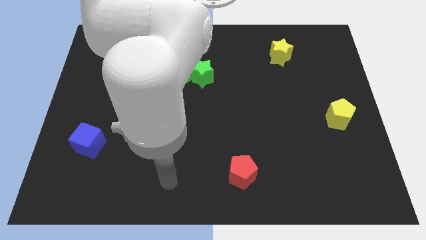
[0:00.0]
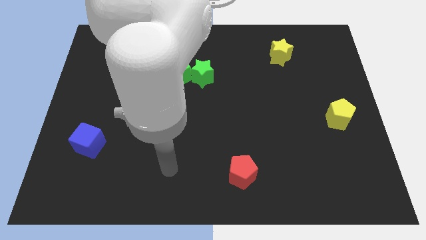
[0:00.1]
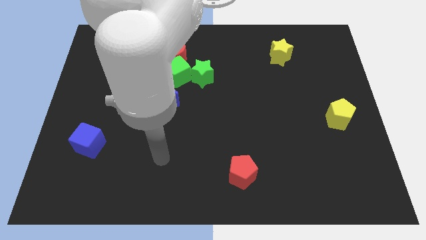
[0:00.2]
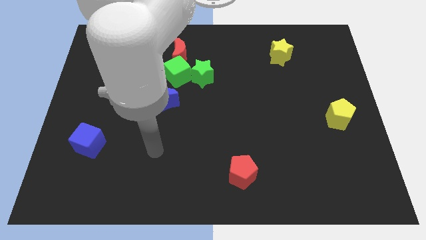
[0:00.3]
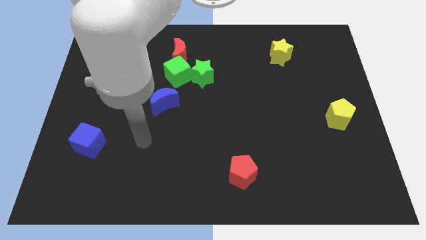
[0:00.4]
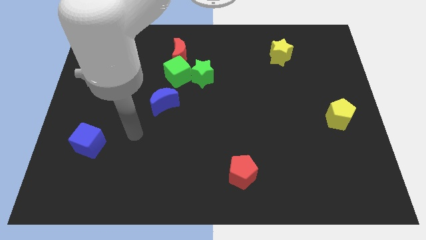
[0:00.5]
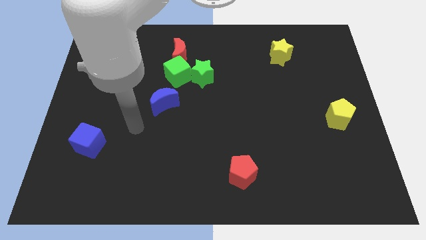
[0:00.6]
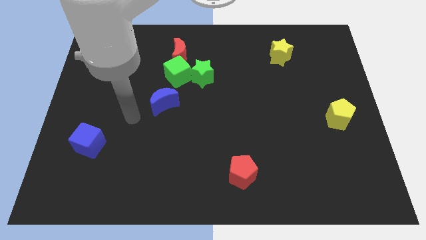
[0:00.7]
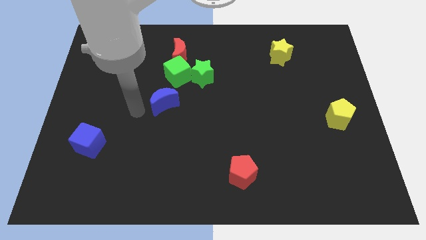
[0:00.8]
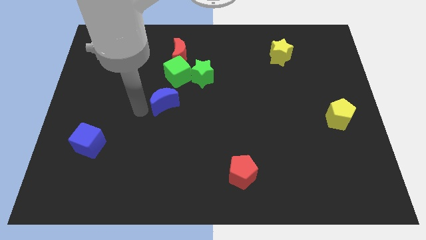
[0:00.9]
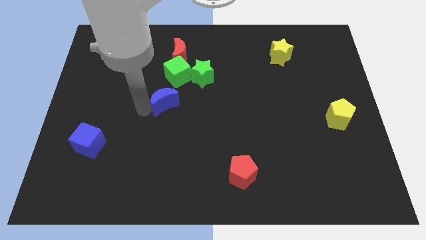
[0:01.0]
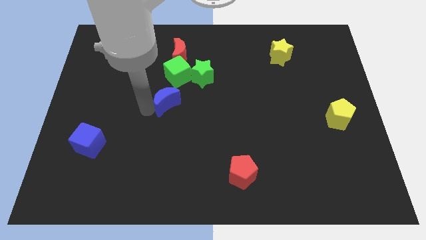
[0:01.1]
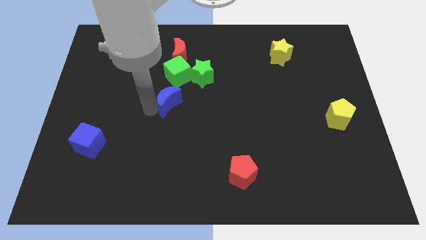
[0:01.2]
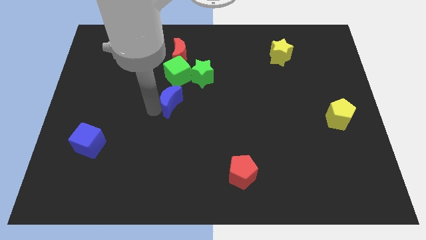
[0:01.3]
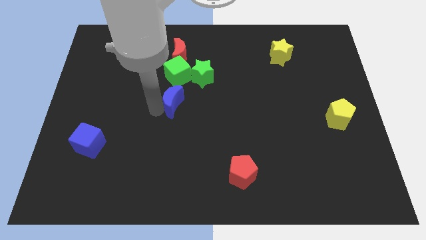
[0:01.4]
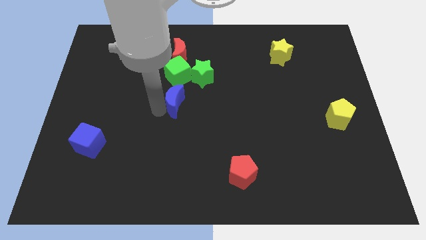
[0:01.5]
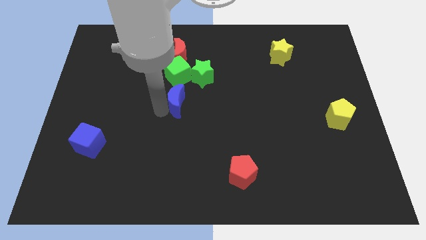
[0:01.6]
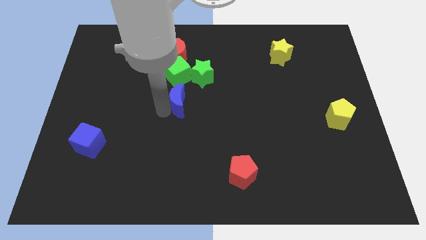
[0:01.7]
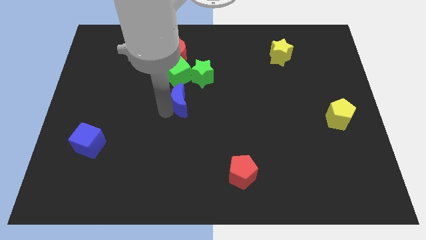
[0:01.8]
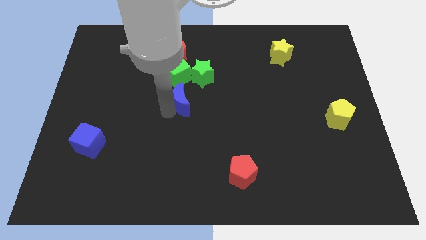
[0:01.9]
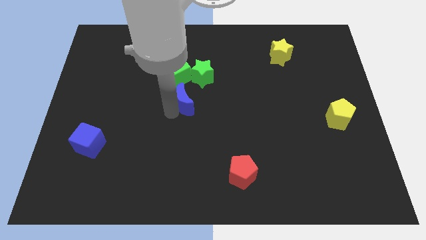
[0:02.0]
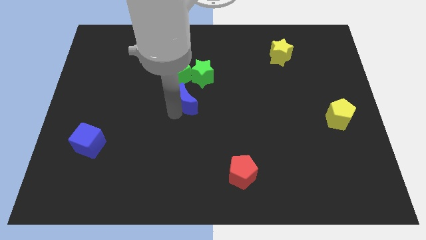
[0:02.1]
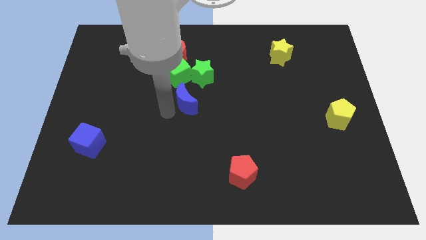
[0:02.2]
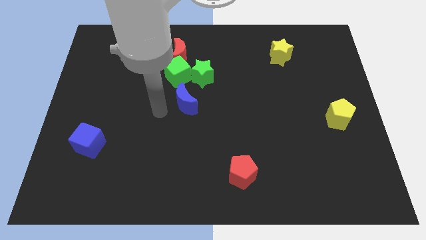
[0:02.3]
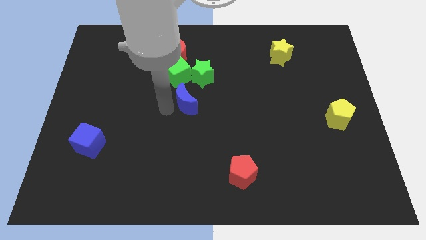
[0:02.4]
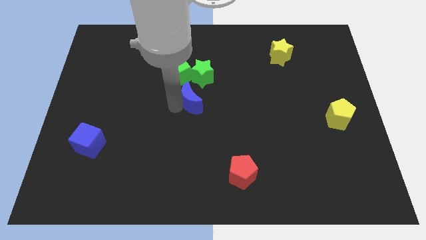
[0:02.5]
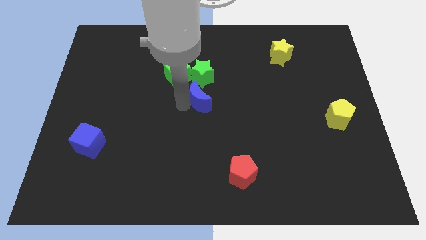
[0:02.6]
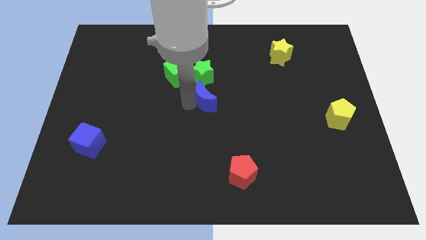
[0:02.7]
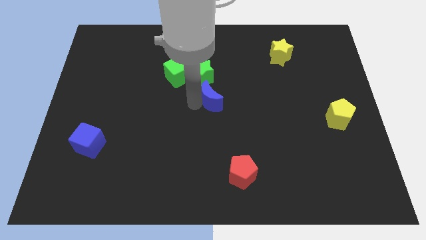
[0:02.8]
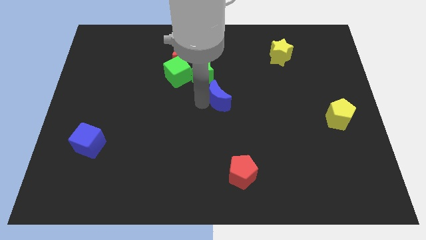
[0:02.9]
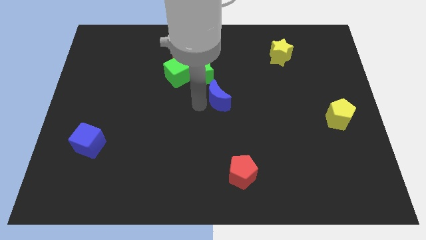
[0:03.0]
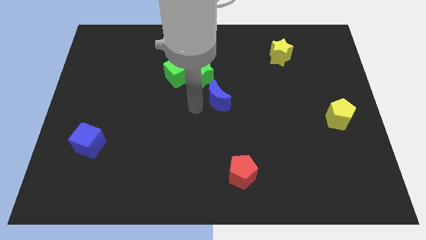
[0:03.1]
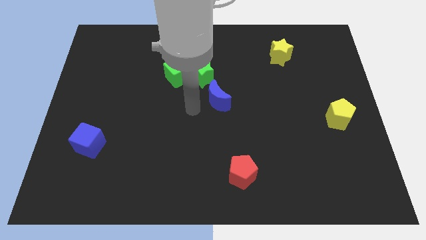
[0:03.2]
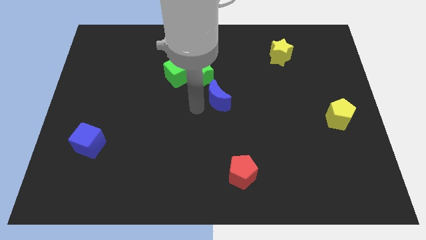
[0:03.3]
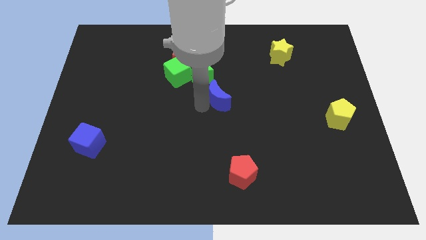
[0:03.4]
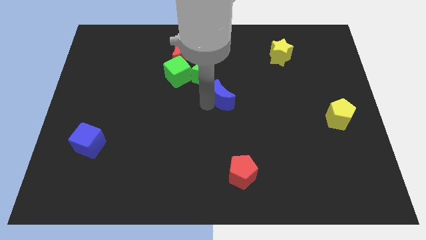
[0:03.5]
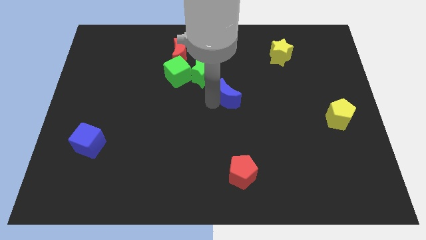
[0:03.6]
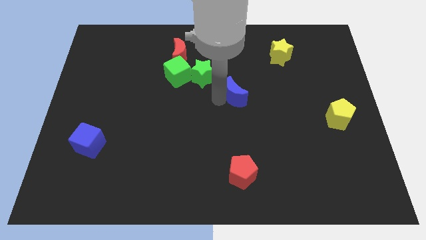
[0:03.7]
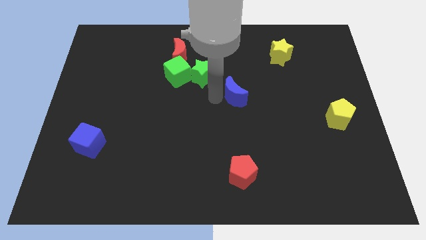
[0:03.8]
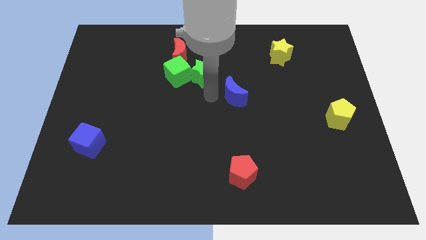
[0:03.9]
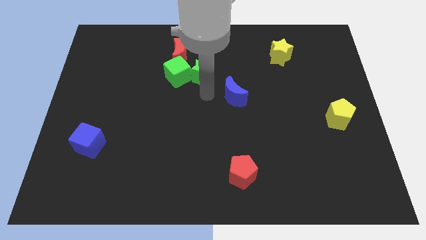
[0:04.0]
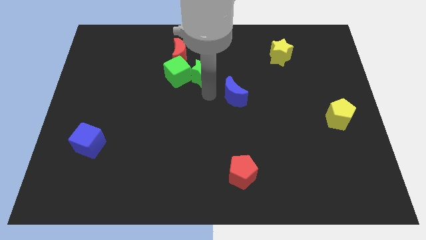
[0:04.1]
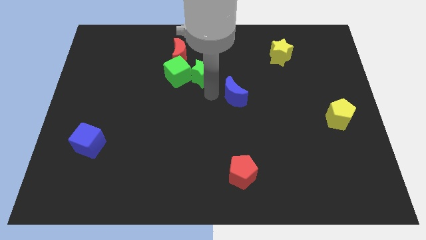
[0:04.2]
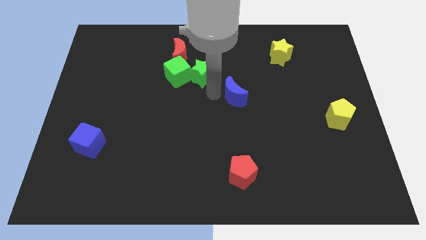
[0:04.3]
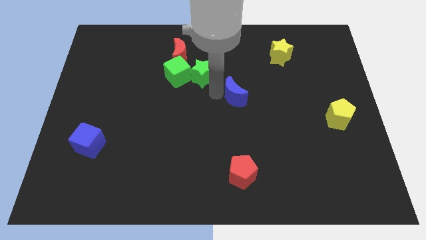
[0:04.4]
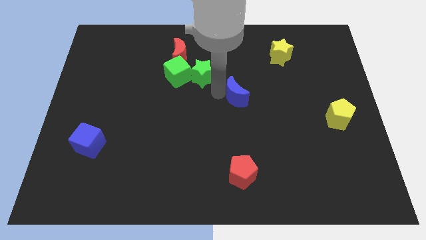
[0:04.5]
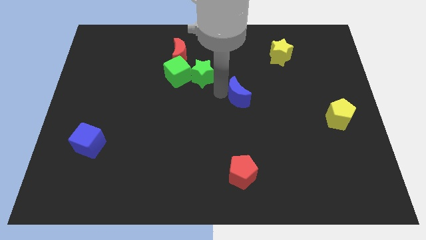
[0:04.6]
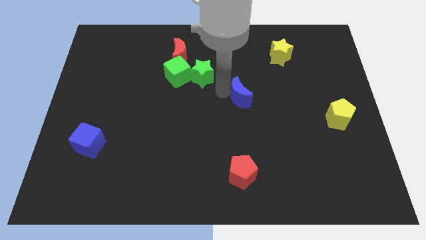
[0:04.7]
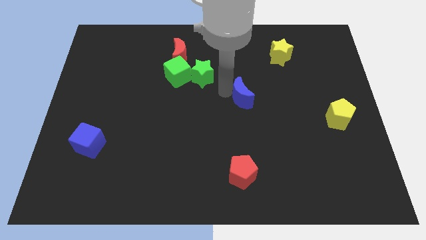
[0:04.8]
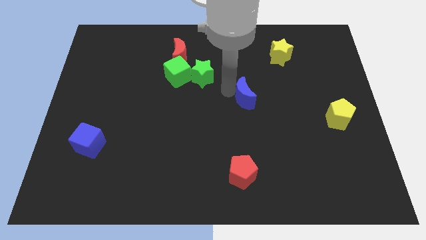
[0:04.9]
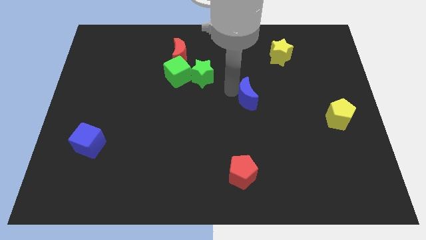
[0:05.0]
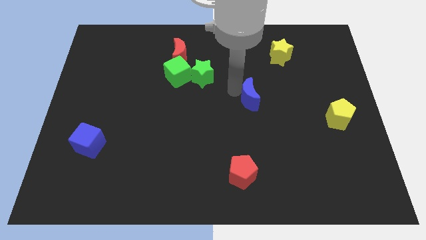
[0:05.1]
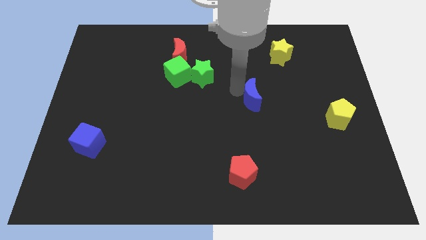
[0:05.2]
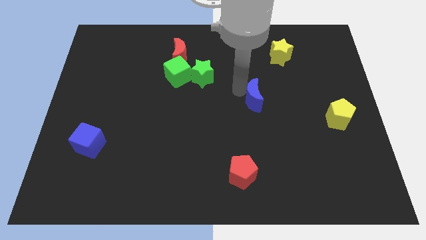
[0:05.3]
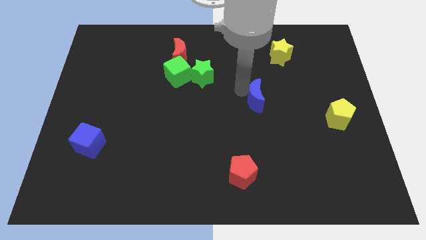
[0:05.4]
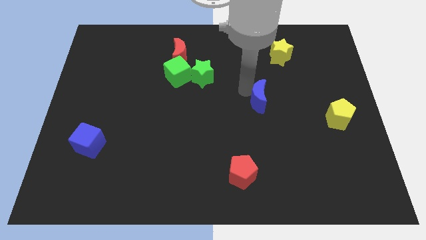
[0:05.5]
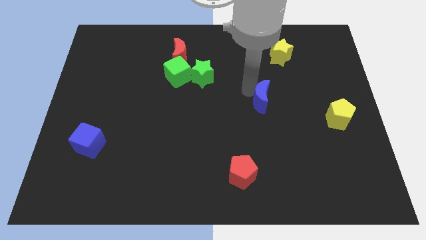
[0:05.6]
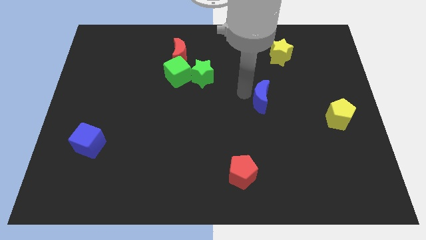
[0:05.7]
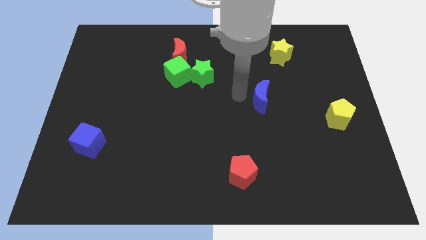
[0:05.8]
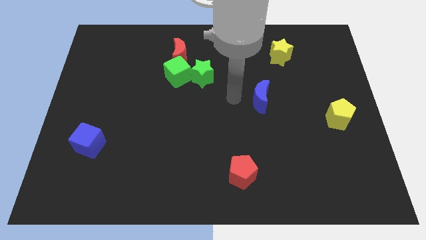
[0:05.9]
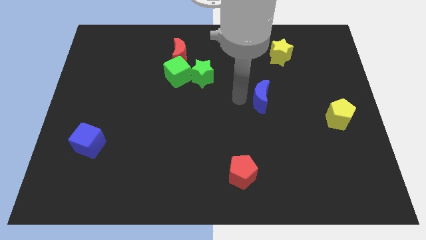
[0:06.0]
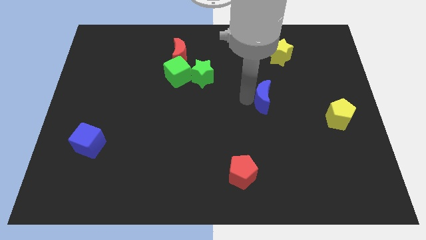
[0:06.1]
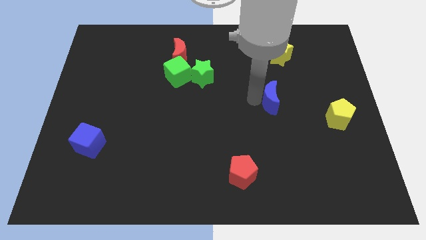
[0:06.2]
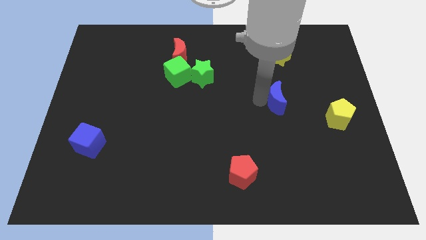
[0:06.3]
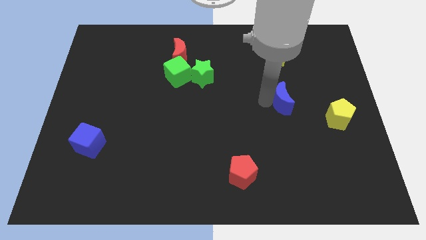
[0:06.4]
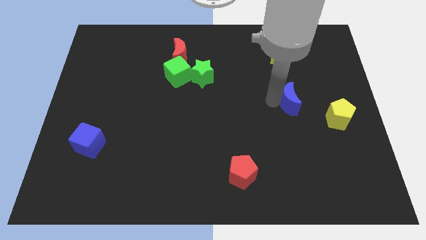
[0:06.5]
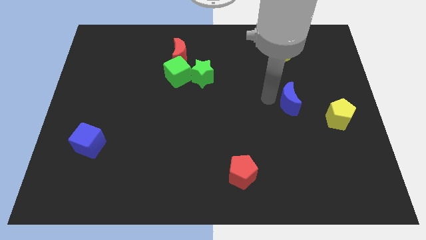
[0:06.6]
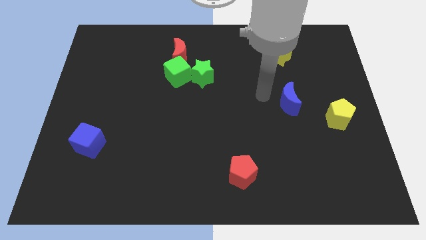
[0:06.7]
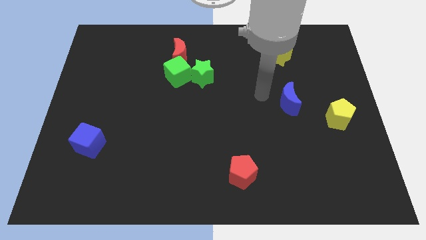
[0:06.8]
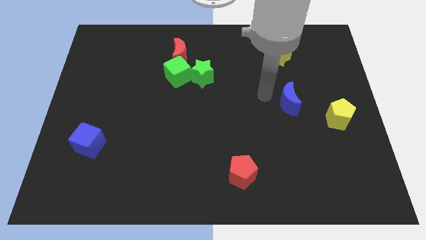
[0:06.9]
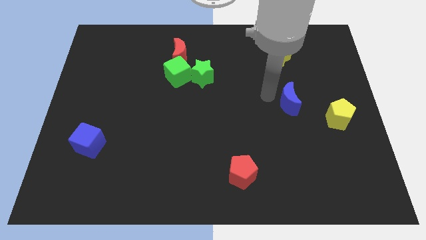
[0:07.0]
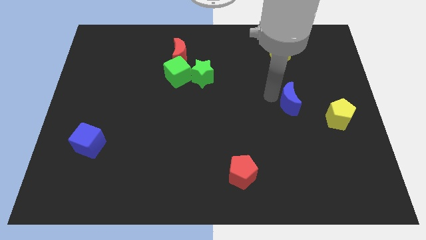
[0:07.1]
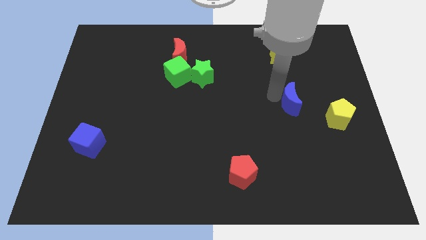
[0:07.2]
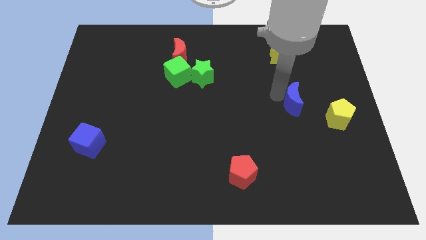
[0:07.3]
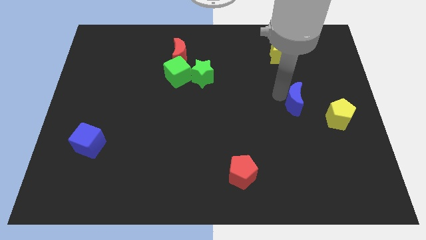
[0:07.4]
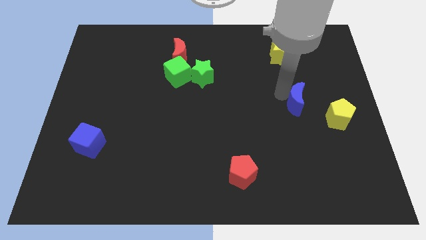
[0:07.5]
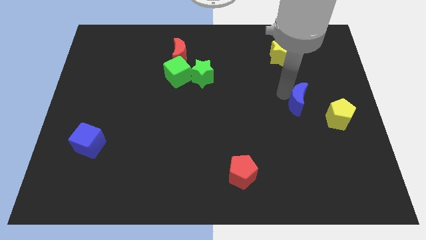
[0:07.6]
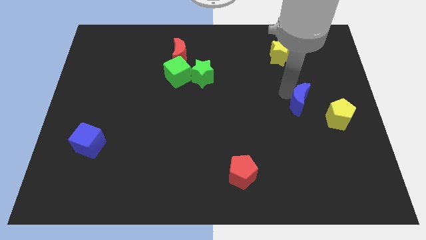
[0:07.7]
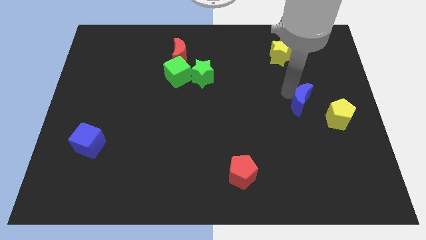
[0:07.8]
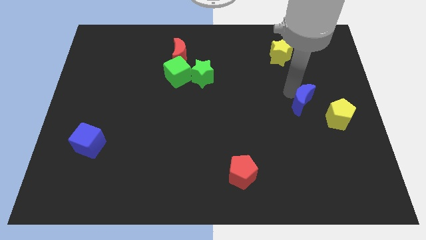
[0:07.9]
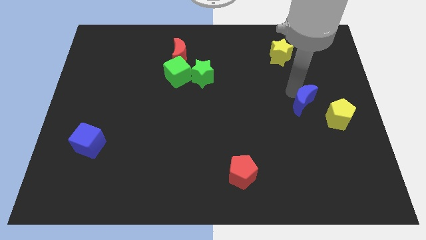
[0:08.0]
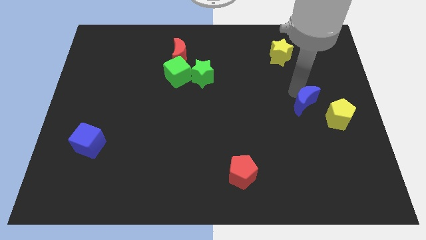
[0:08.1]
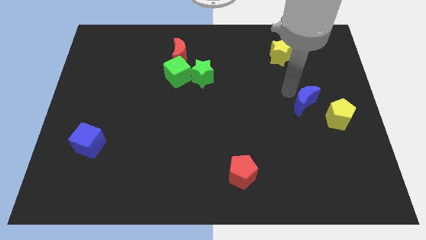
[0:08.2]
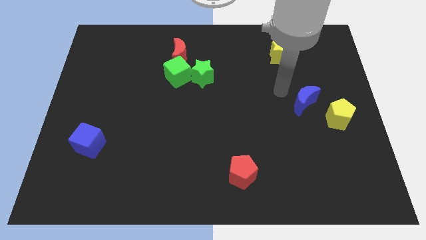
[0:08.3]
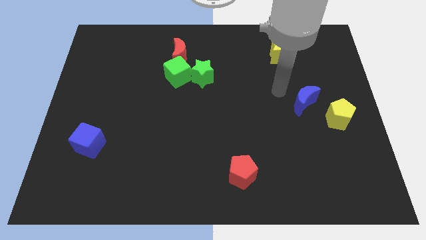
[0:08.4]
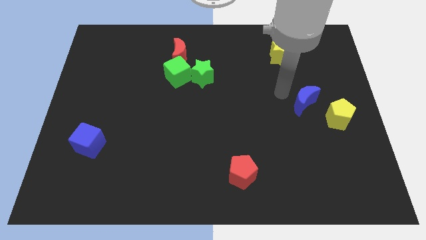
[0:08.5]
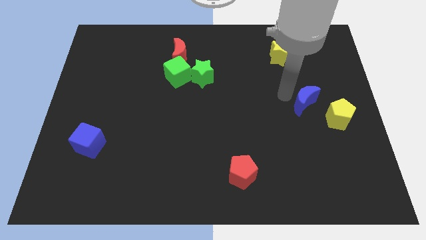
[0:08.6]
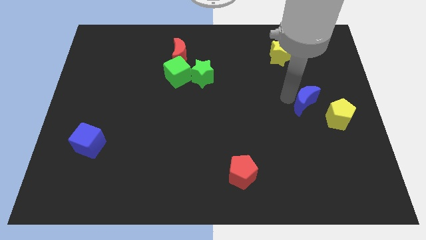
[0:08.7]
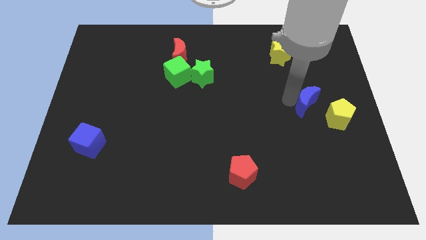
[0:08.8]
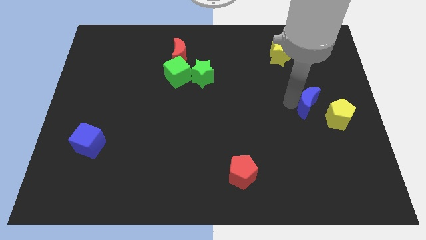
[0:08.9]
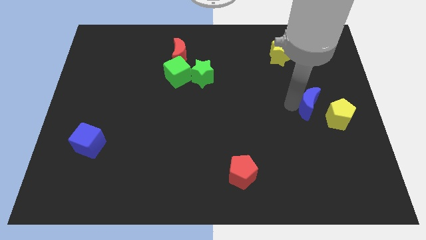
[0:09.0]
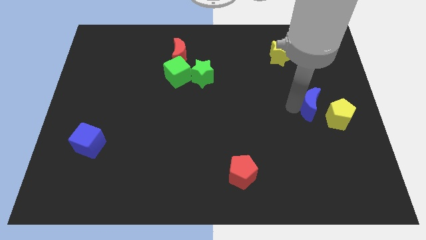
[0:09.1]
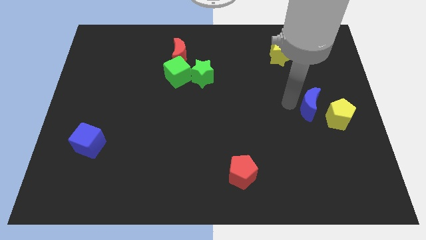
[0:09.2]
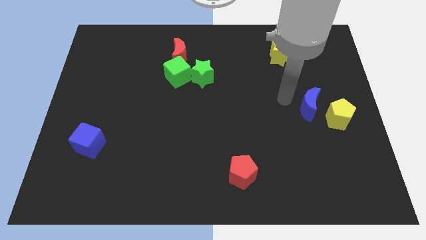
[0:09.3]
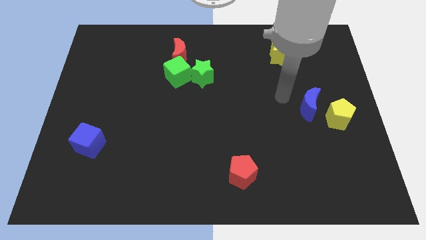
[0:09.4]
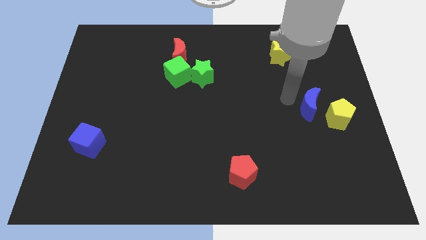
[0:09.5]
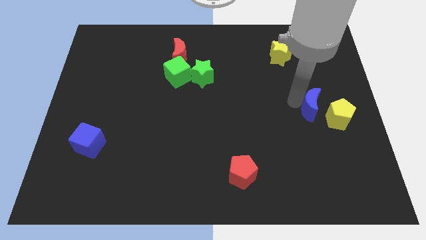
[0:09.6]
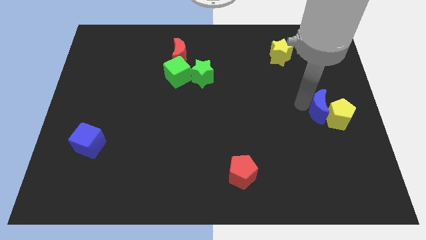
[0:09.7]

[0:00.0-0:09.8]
put the blue moon to the yellow pentagon
